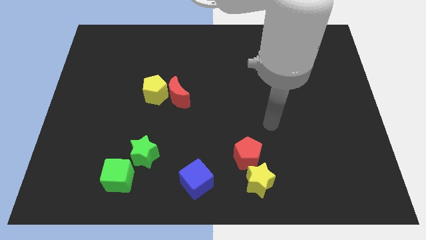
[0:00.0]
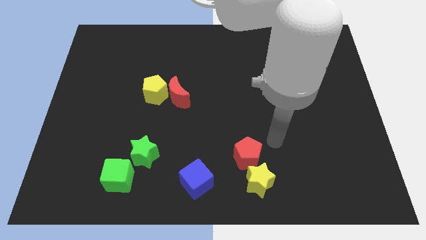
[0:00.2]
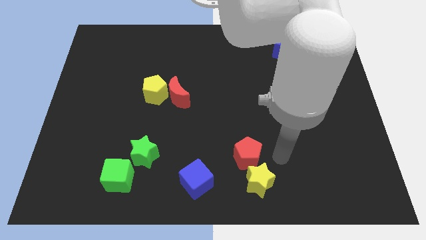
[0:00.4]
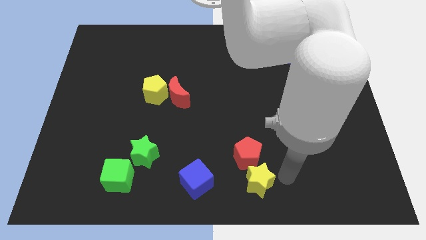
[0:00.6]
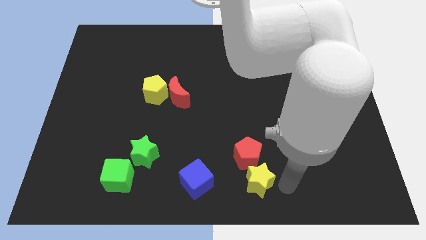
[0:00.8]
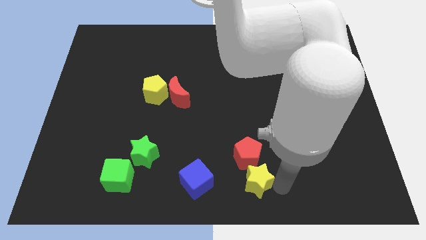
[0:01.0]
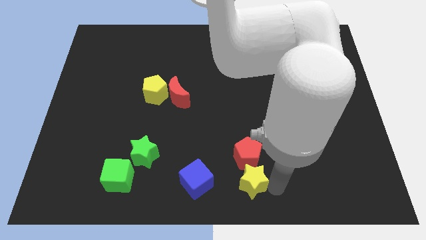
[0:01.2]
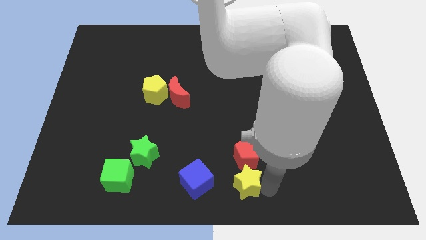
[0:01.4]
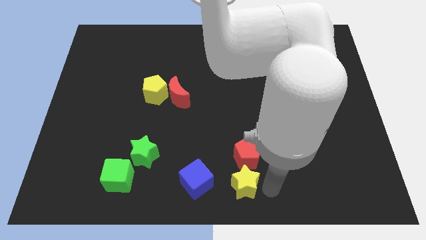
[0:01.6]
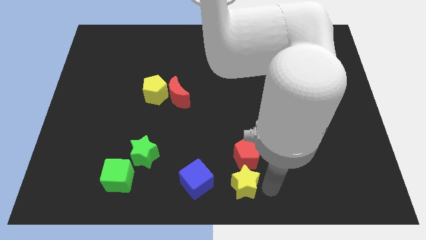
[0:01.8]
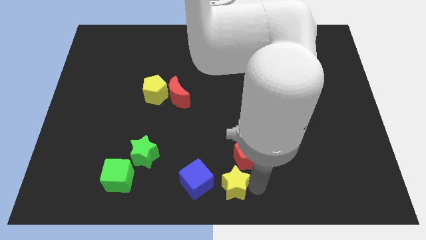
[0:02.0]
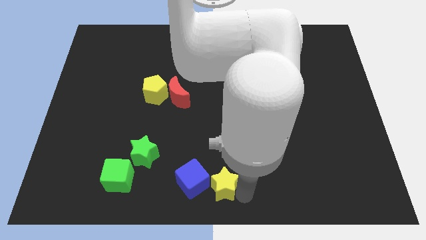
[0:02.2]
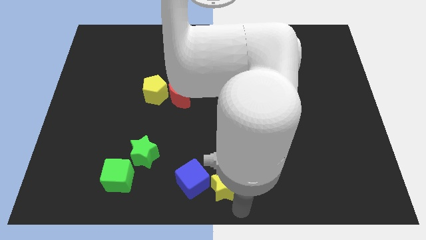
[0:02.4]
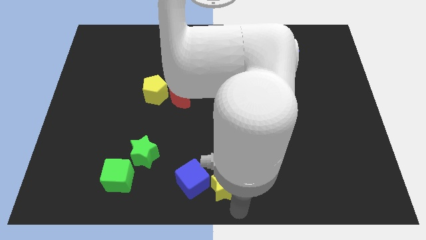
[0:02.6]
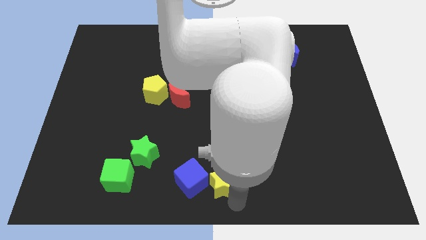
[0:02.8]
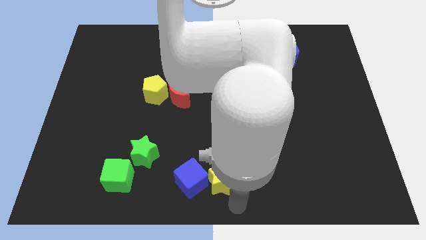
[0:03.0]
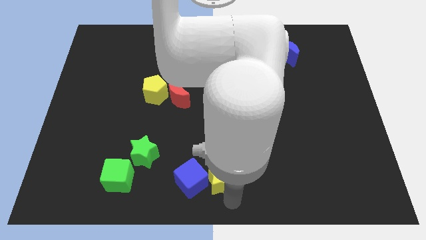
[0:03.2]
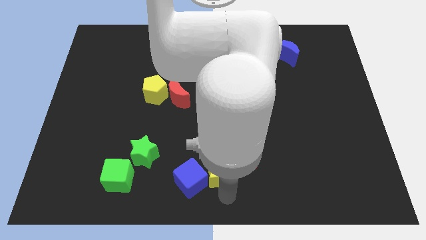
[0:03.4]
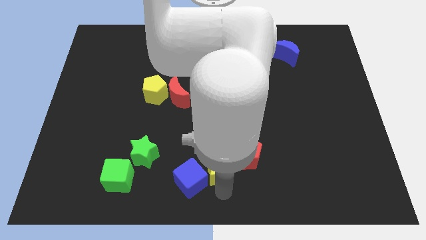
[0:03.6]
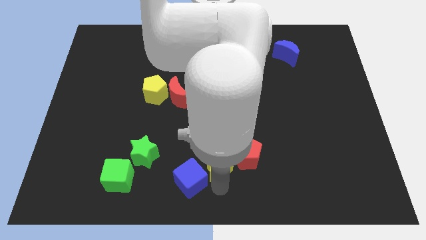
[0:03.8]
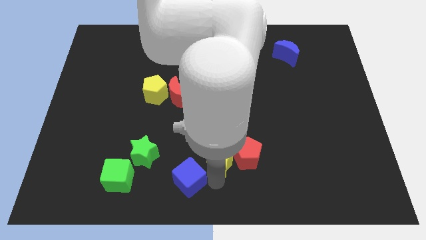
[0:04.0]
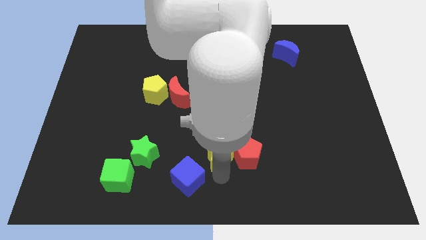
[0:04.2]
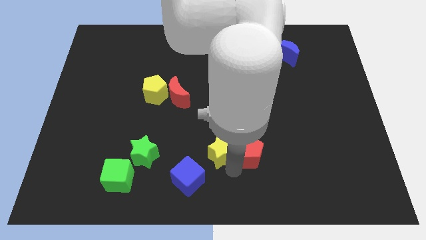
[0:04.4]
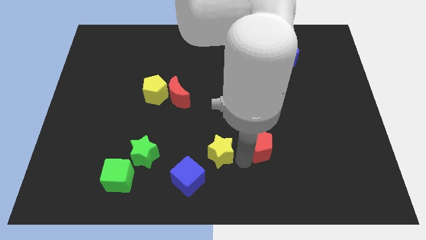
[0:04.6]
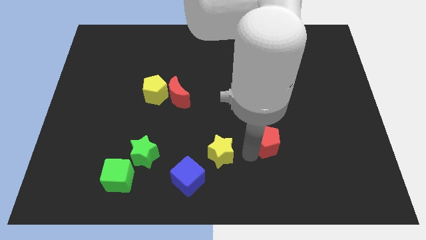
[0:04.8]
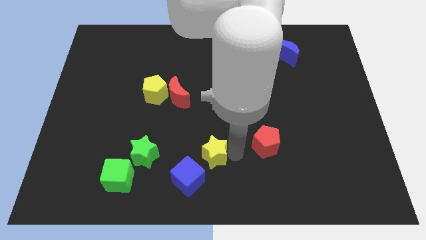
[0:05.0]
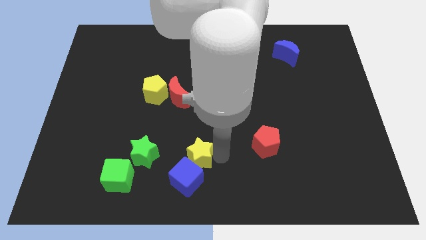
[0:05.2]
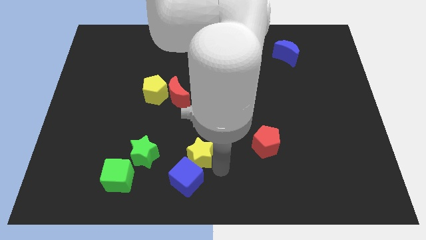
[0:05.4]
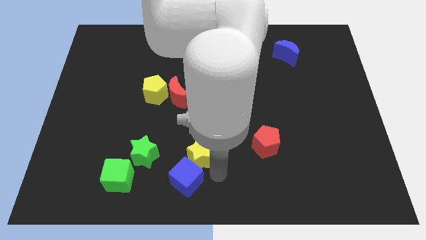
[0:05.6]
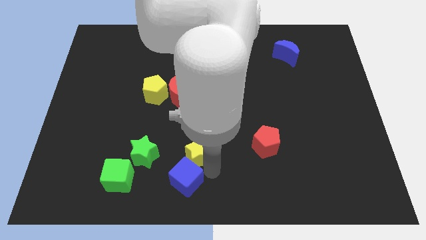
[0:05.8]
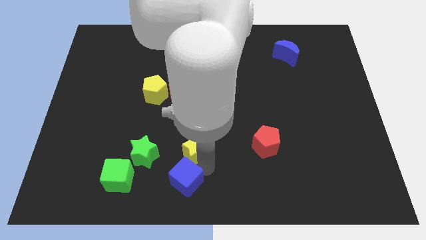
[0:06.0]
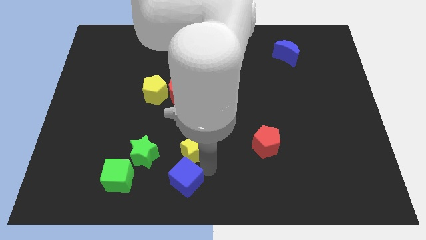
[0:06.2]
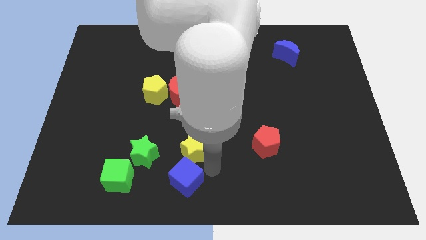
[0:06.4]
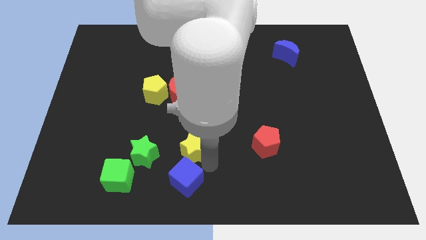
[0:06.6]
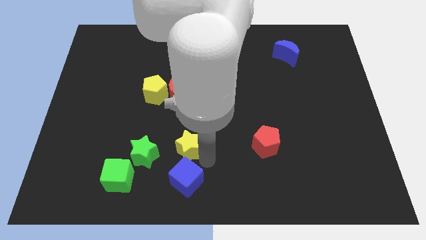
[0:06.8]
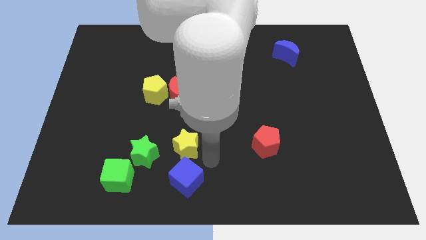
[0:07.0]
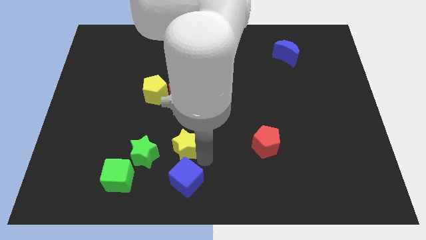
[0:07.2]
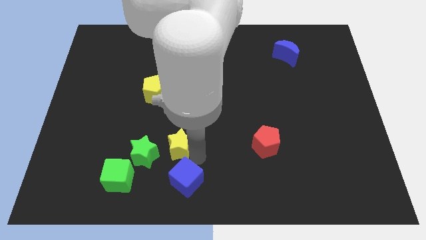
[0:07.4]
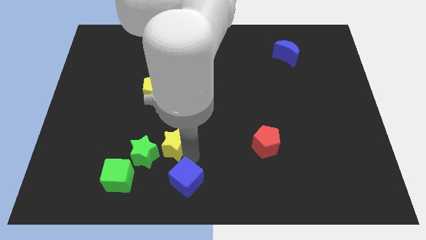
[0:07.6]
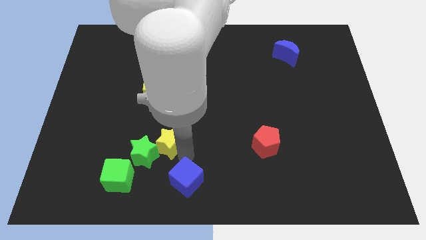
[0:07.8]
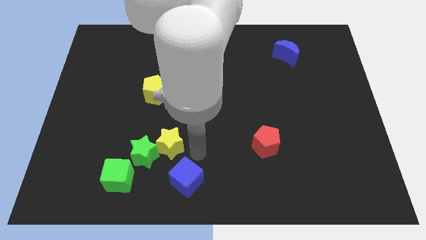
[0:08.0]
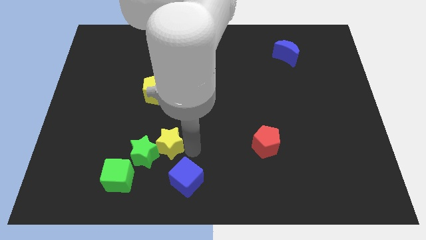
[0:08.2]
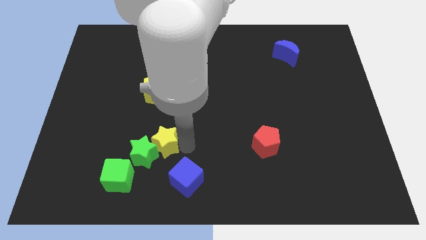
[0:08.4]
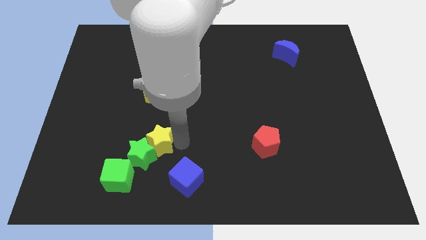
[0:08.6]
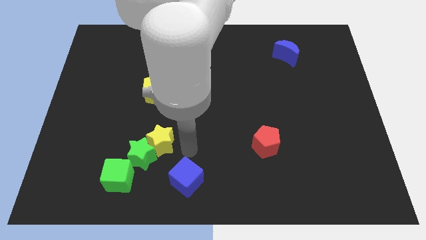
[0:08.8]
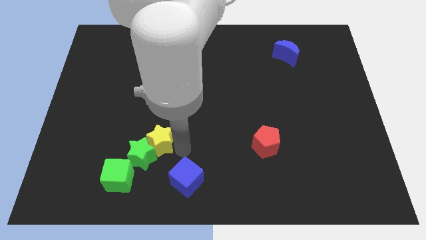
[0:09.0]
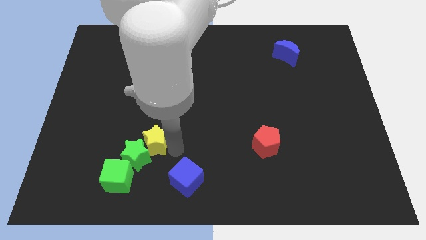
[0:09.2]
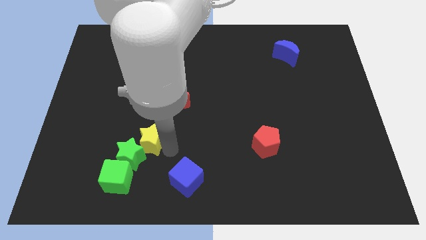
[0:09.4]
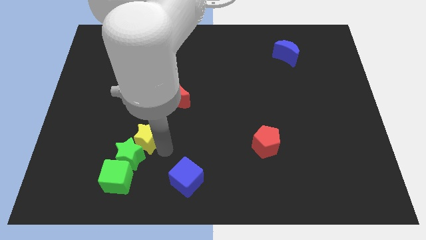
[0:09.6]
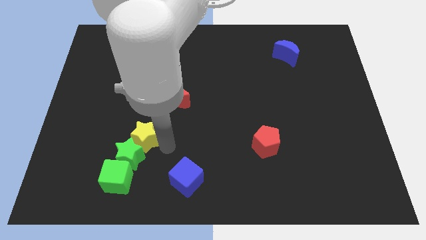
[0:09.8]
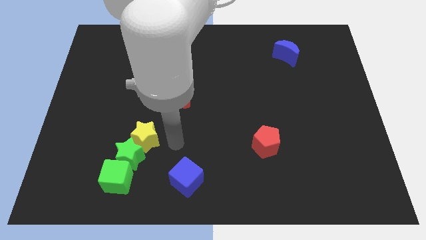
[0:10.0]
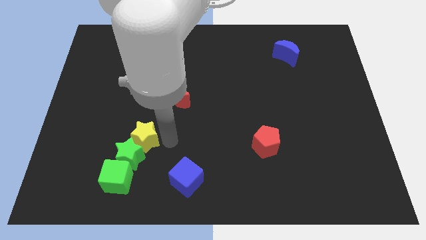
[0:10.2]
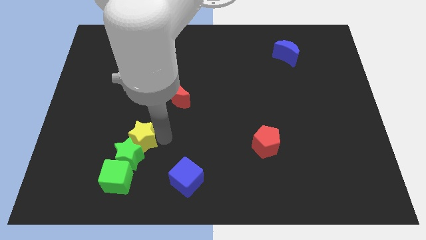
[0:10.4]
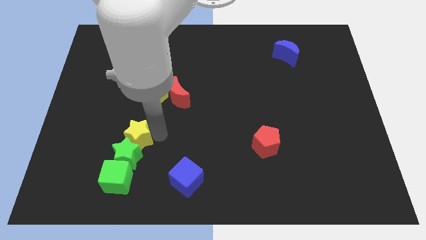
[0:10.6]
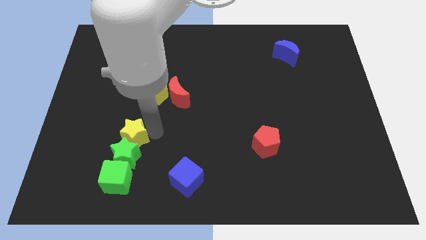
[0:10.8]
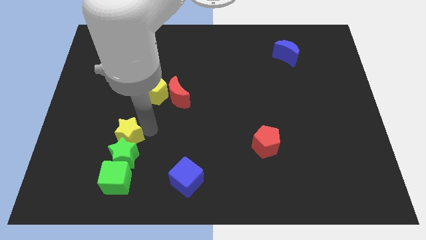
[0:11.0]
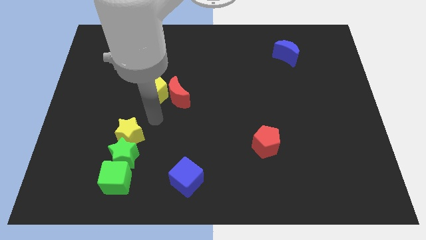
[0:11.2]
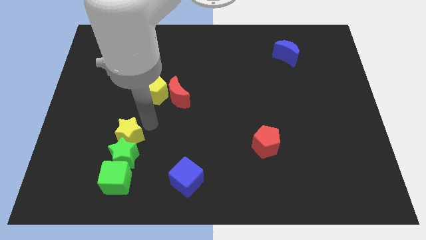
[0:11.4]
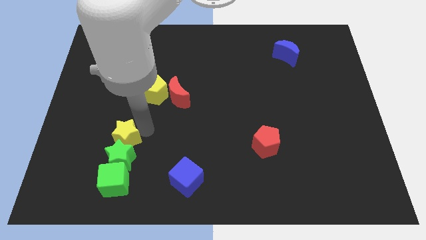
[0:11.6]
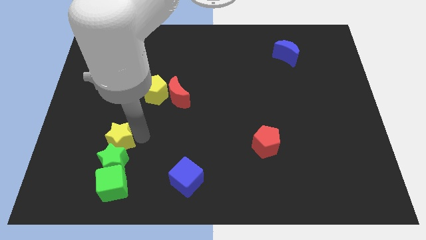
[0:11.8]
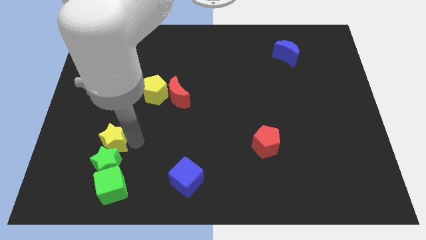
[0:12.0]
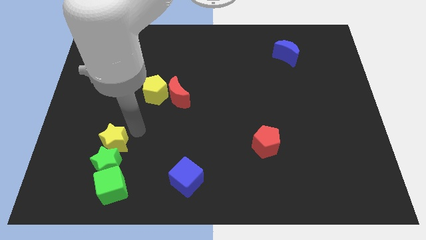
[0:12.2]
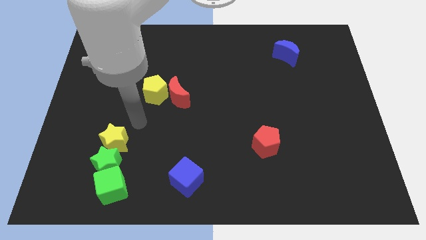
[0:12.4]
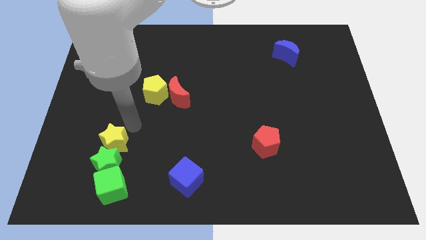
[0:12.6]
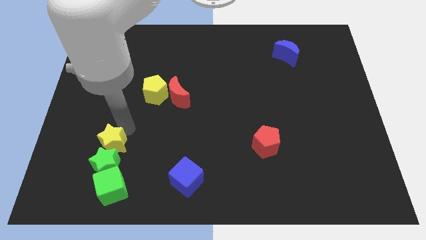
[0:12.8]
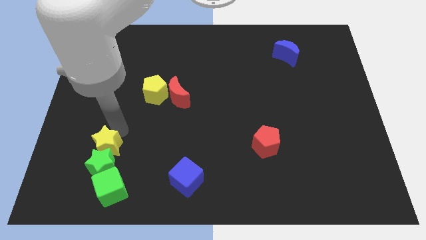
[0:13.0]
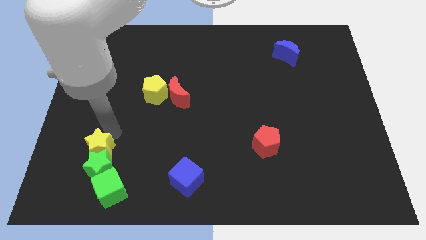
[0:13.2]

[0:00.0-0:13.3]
move the yellow star diagonally up and to the left of the green cube

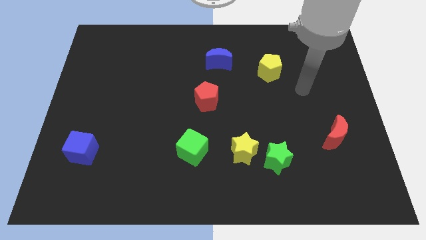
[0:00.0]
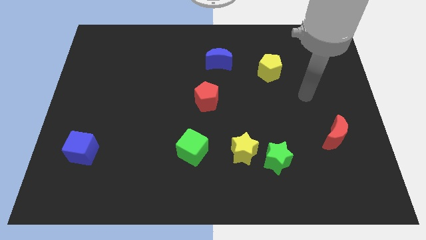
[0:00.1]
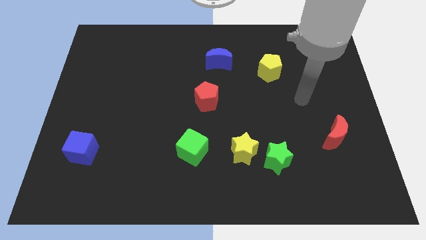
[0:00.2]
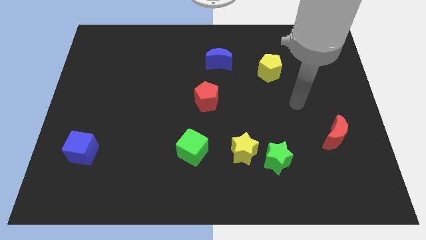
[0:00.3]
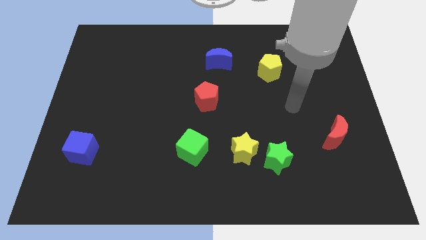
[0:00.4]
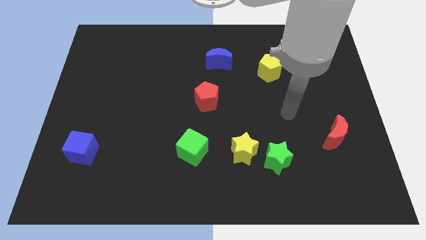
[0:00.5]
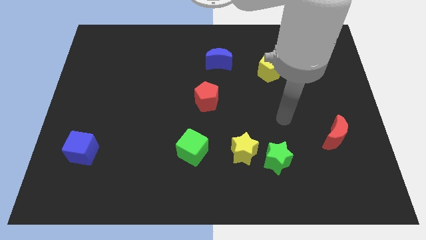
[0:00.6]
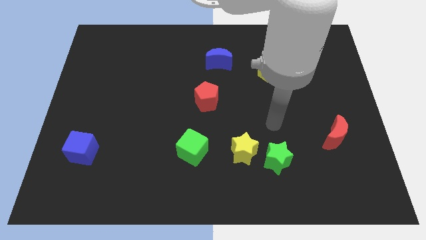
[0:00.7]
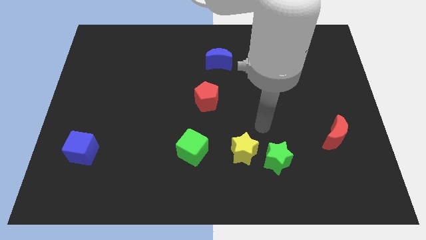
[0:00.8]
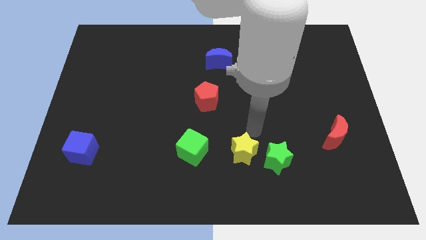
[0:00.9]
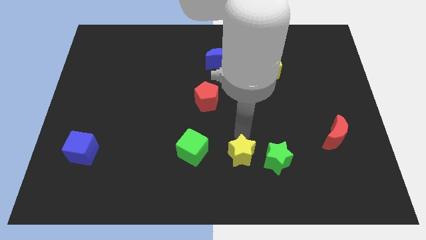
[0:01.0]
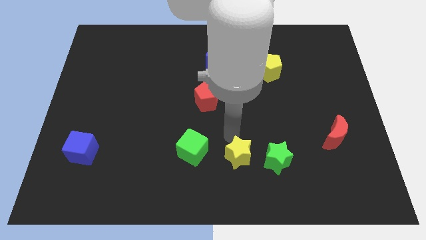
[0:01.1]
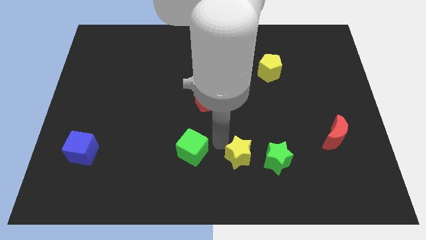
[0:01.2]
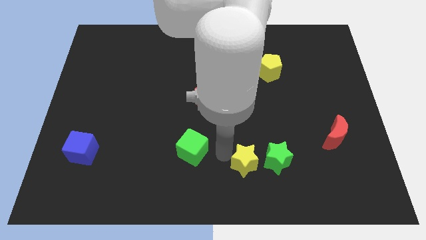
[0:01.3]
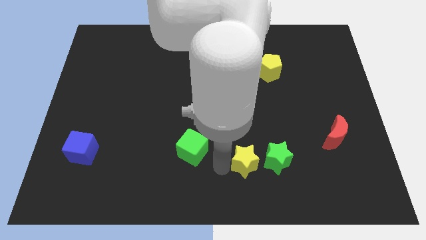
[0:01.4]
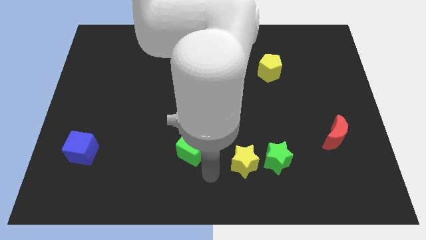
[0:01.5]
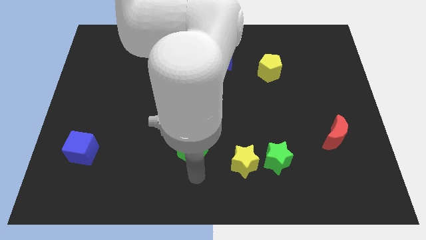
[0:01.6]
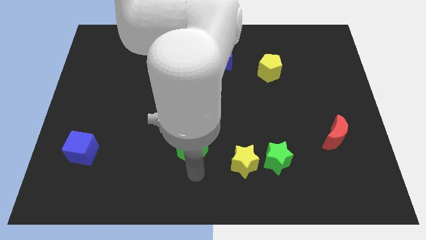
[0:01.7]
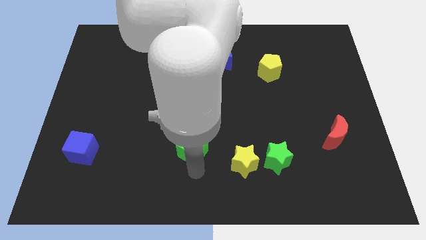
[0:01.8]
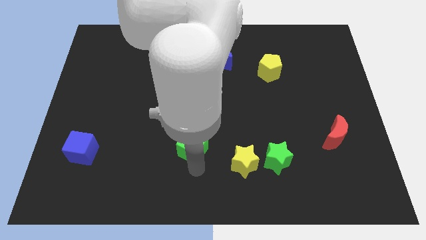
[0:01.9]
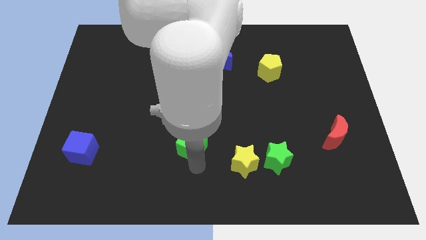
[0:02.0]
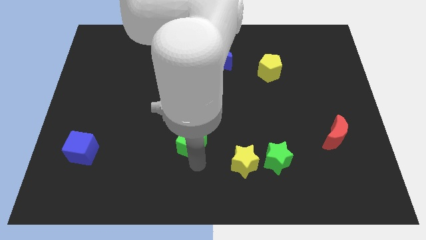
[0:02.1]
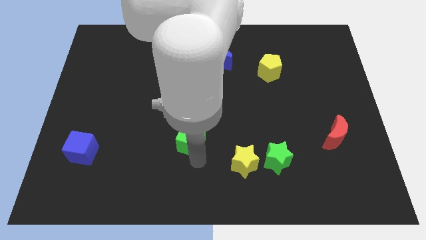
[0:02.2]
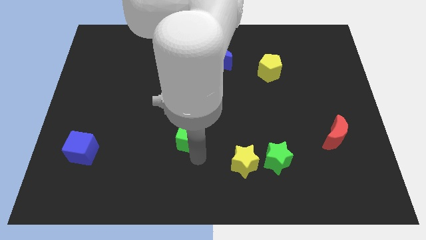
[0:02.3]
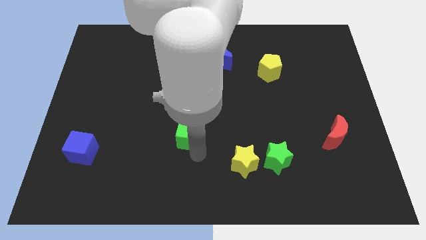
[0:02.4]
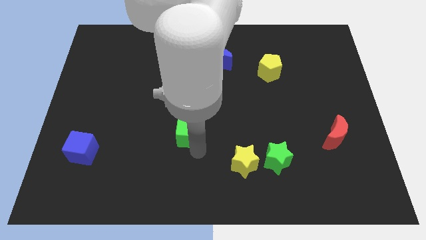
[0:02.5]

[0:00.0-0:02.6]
put the green cube diagonally down and to the left of the red pentagon
